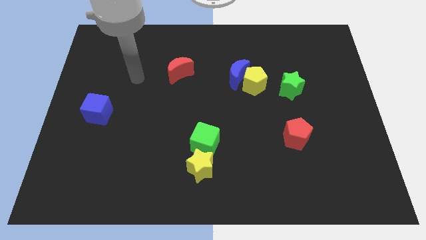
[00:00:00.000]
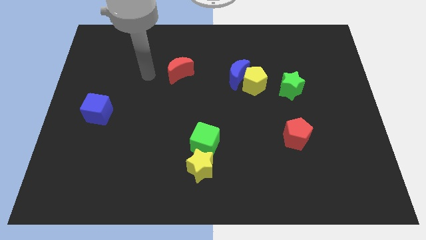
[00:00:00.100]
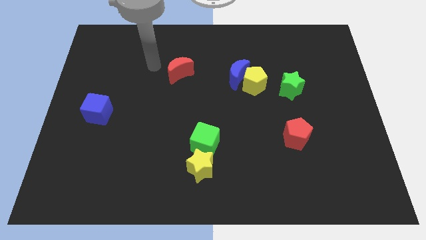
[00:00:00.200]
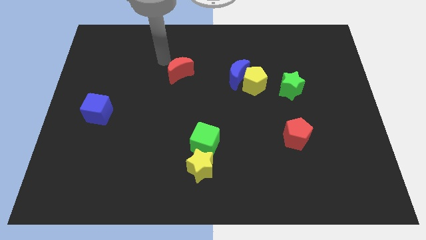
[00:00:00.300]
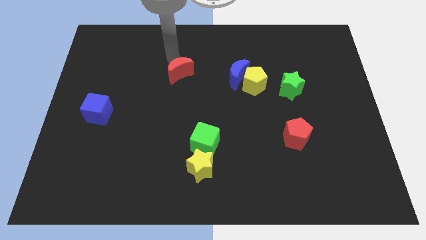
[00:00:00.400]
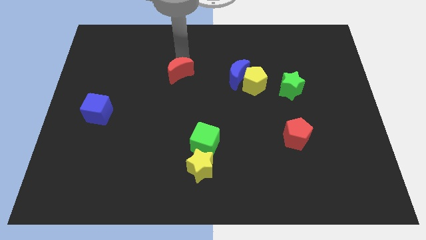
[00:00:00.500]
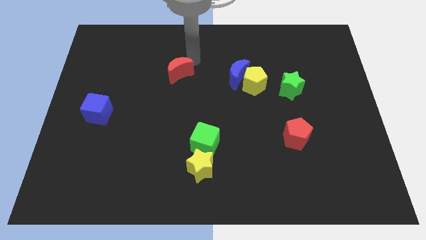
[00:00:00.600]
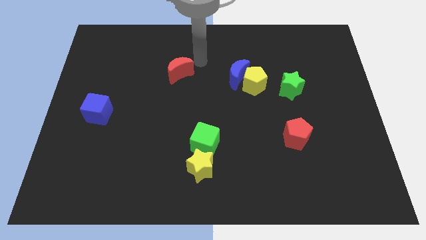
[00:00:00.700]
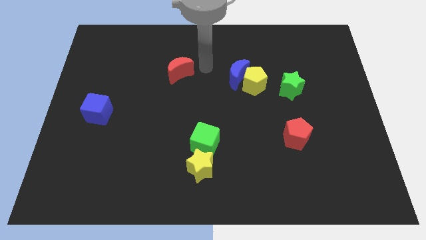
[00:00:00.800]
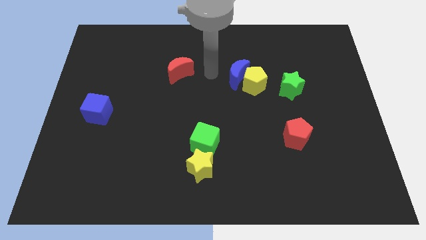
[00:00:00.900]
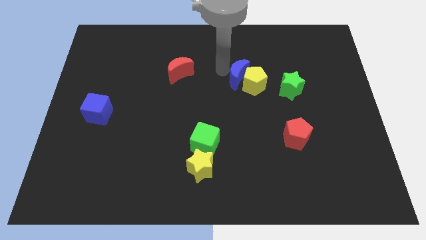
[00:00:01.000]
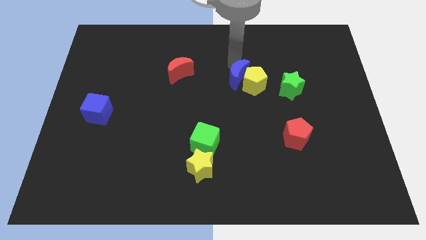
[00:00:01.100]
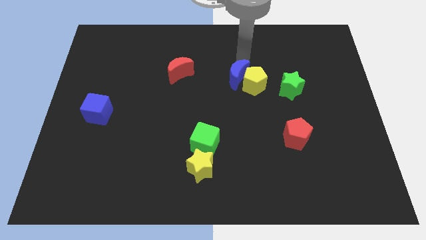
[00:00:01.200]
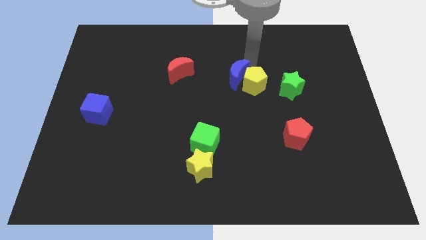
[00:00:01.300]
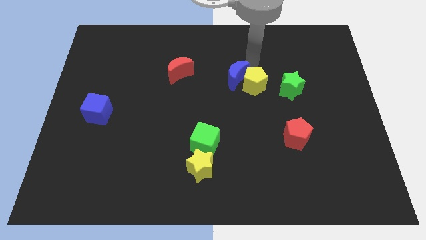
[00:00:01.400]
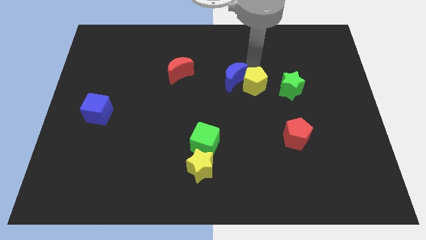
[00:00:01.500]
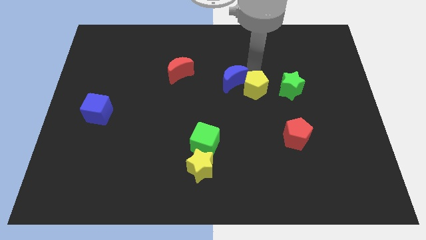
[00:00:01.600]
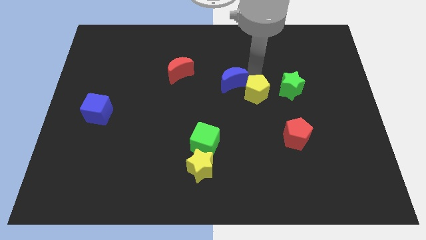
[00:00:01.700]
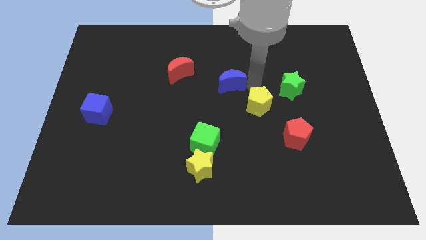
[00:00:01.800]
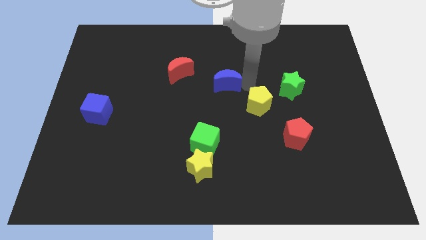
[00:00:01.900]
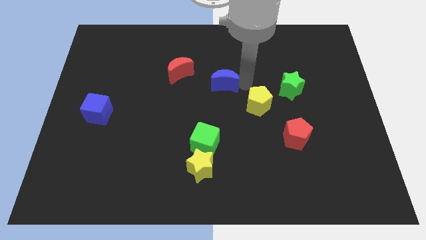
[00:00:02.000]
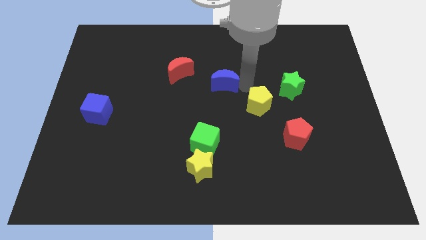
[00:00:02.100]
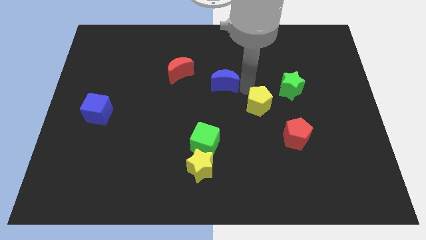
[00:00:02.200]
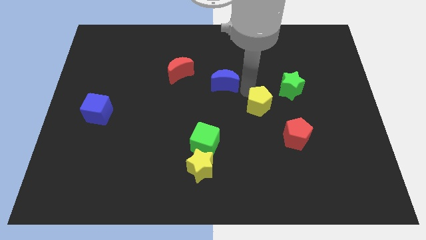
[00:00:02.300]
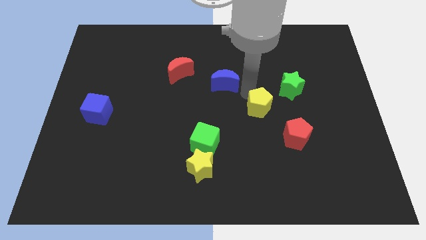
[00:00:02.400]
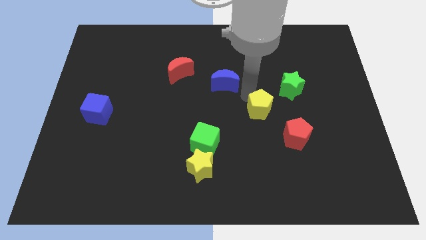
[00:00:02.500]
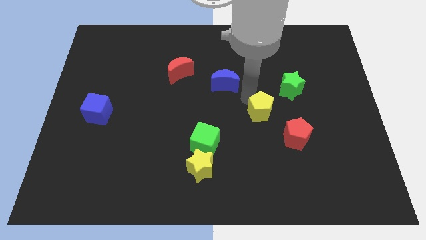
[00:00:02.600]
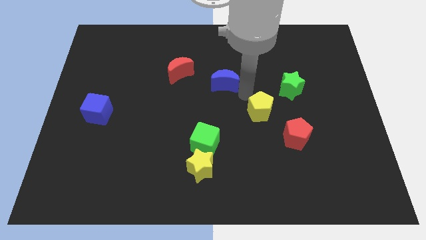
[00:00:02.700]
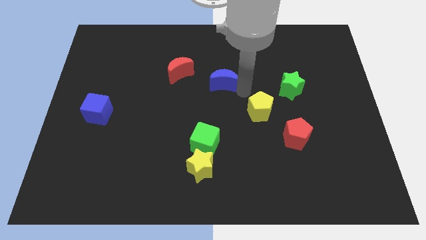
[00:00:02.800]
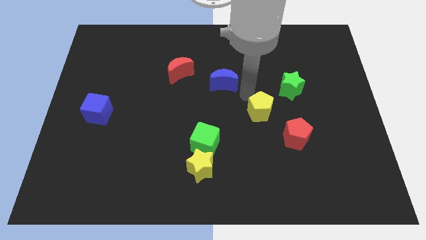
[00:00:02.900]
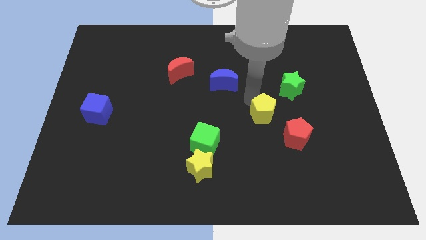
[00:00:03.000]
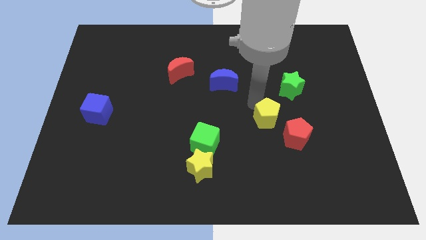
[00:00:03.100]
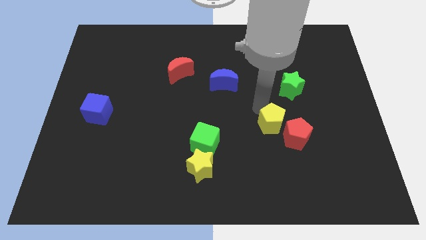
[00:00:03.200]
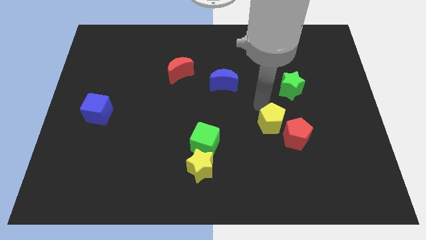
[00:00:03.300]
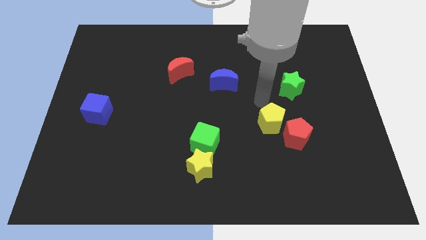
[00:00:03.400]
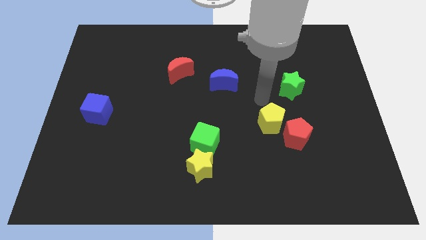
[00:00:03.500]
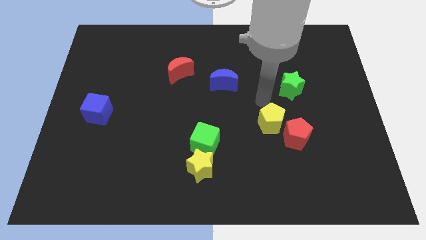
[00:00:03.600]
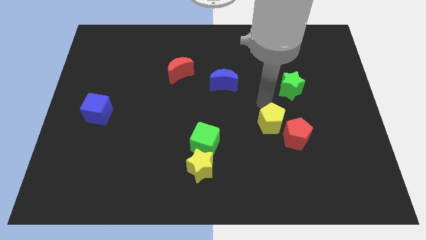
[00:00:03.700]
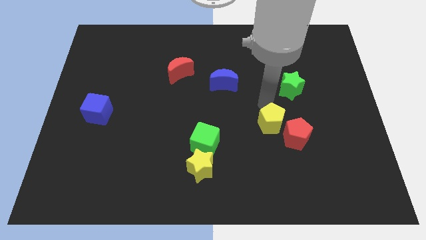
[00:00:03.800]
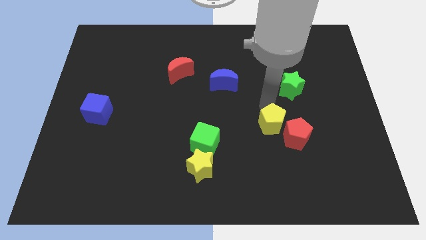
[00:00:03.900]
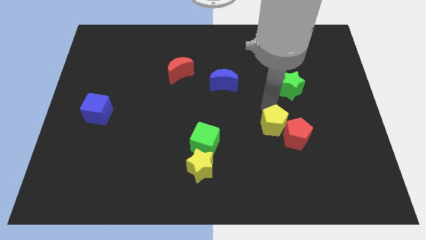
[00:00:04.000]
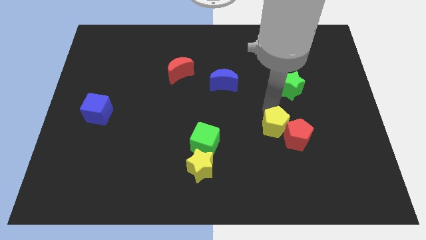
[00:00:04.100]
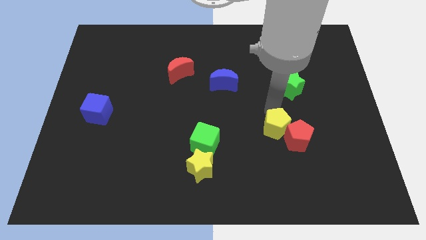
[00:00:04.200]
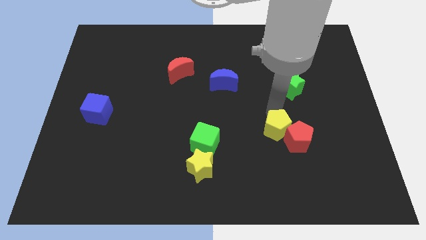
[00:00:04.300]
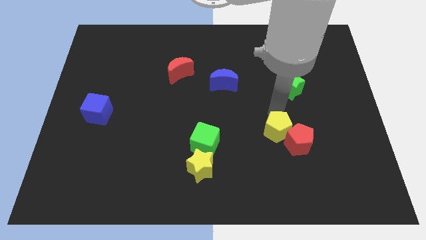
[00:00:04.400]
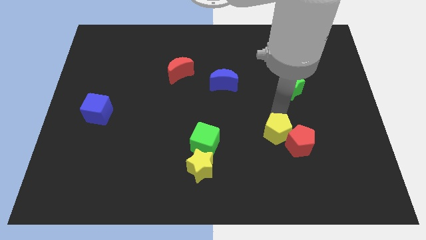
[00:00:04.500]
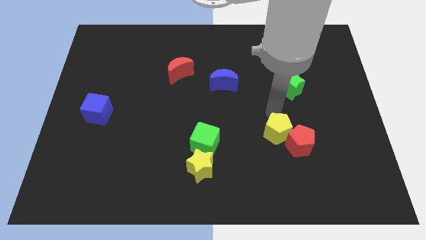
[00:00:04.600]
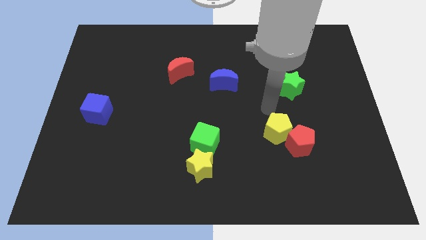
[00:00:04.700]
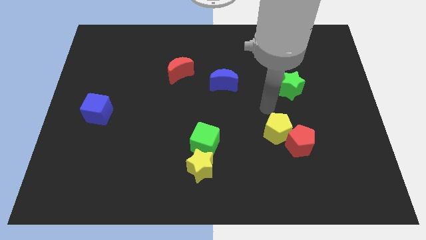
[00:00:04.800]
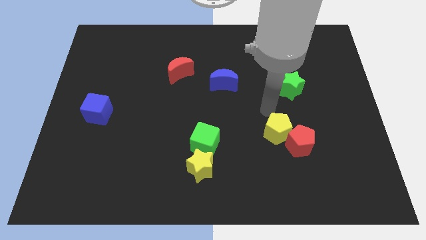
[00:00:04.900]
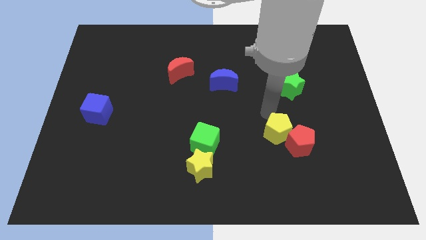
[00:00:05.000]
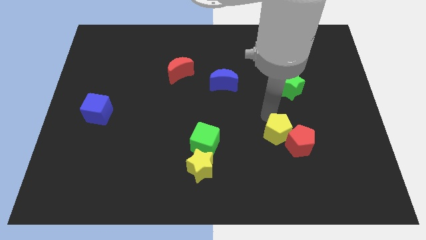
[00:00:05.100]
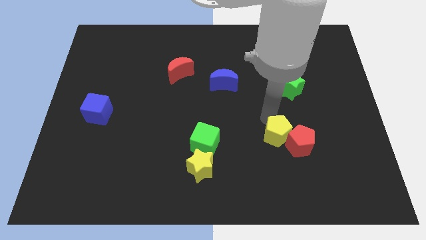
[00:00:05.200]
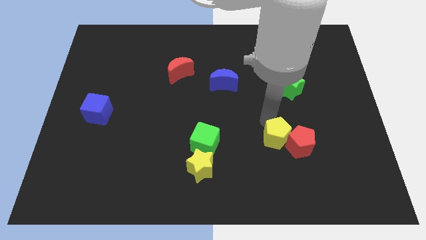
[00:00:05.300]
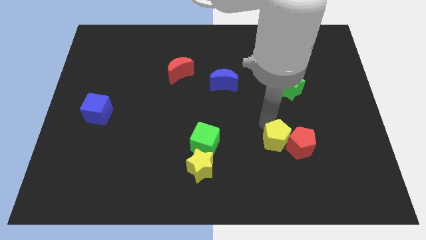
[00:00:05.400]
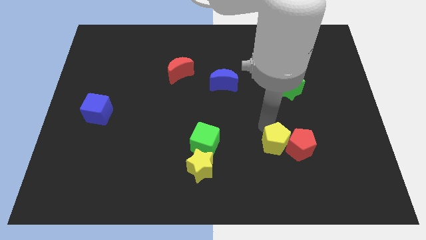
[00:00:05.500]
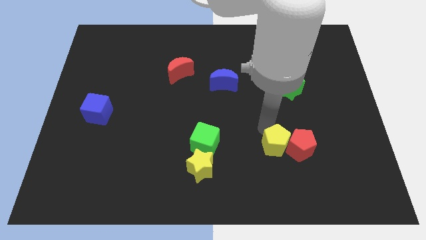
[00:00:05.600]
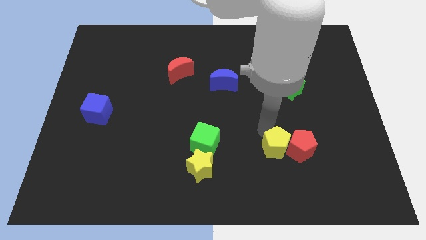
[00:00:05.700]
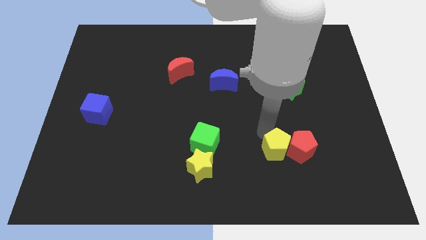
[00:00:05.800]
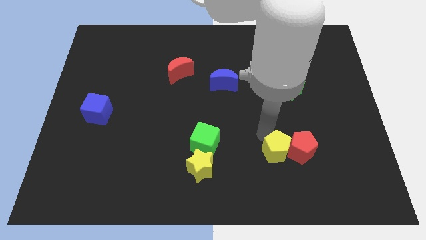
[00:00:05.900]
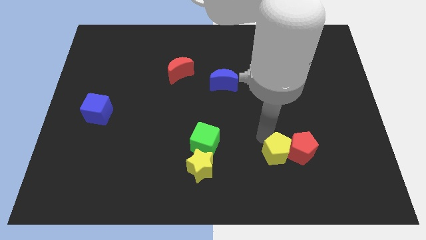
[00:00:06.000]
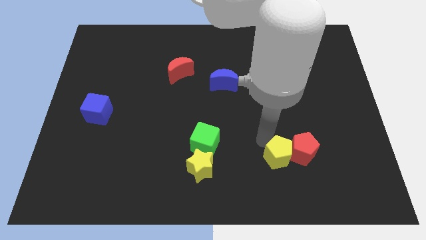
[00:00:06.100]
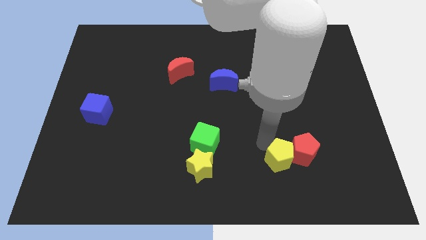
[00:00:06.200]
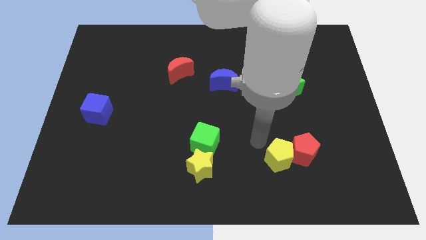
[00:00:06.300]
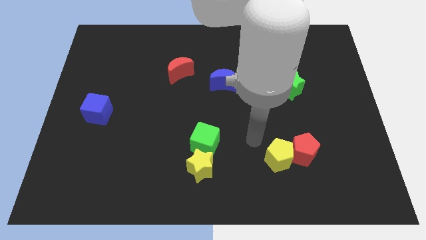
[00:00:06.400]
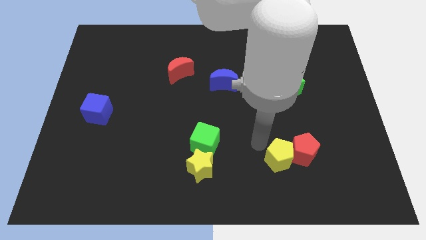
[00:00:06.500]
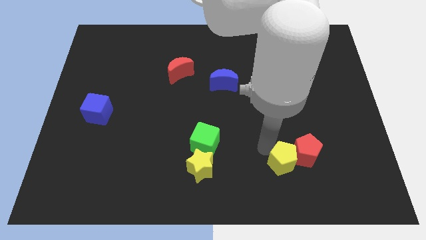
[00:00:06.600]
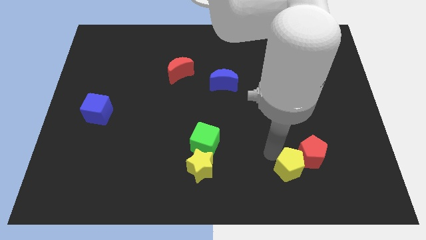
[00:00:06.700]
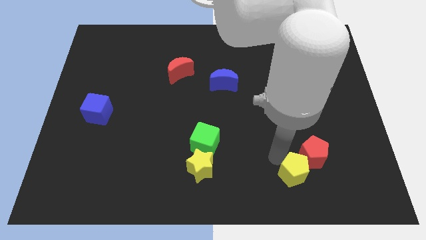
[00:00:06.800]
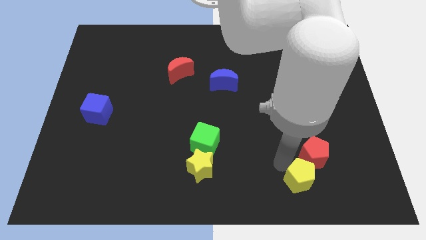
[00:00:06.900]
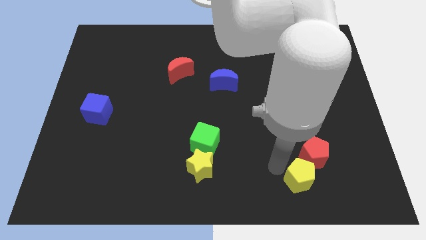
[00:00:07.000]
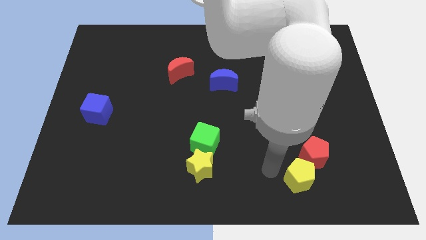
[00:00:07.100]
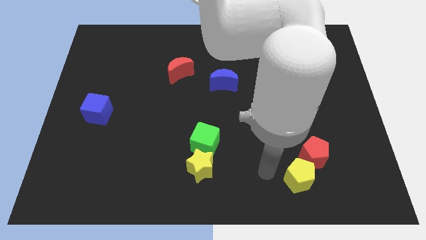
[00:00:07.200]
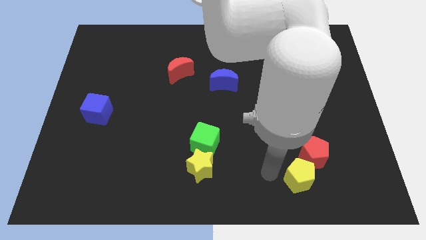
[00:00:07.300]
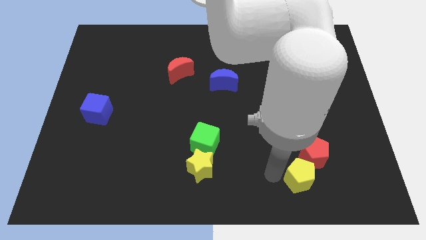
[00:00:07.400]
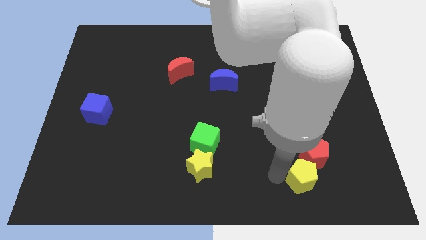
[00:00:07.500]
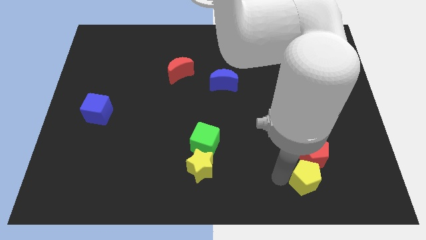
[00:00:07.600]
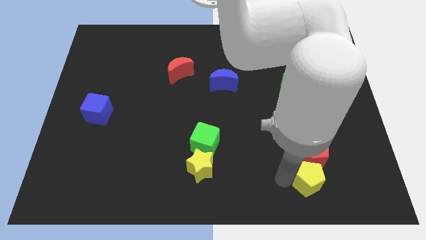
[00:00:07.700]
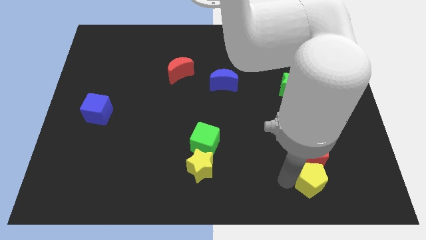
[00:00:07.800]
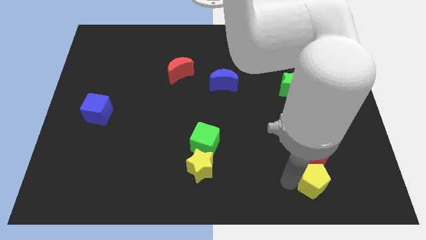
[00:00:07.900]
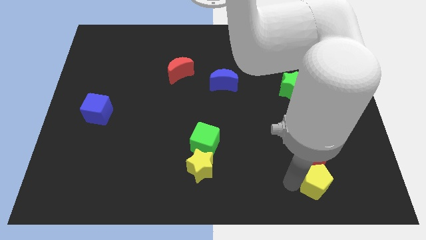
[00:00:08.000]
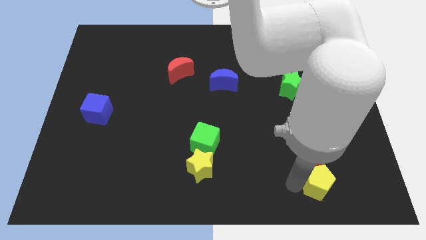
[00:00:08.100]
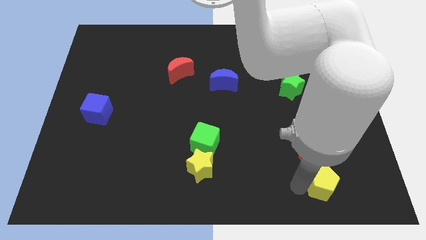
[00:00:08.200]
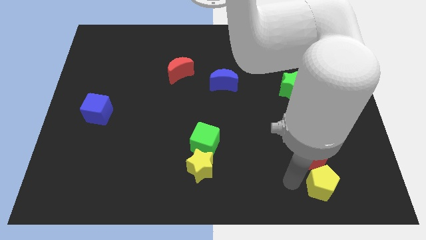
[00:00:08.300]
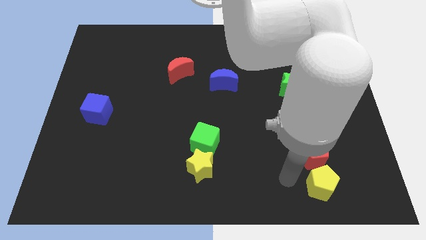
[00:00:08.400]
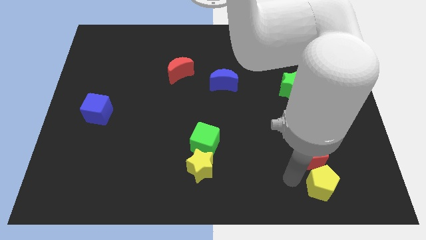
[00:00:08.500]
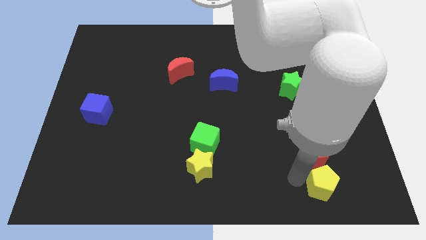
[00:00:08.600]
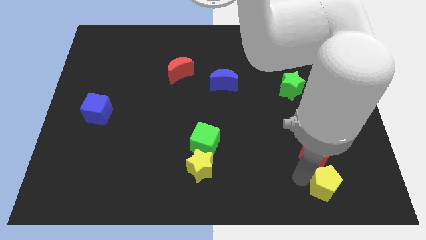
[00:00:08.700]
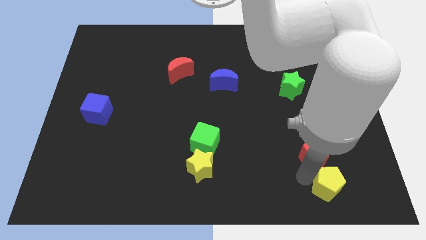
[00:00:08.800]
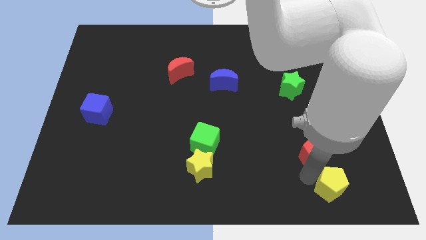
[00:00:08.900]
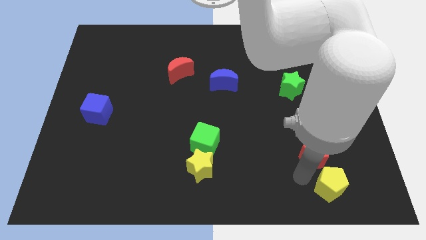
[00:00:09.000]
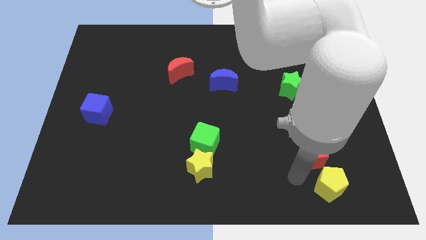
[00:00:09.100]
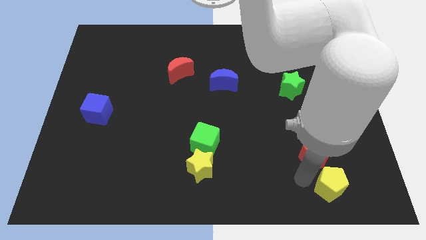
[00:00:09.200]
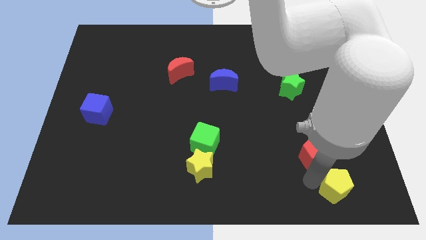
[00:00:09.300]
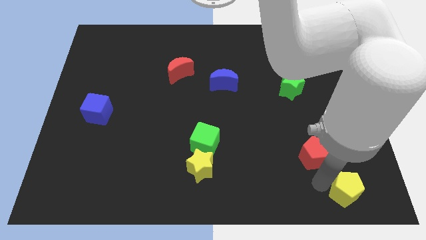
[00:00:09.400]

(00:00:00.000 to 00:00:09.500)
move the yellow pentagon to the lower right corner
